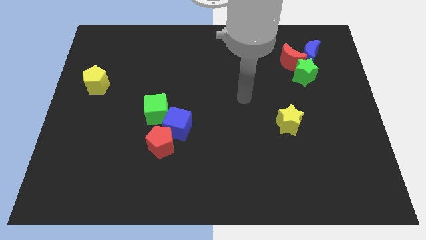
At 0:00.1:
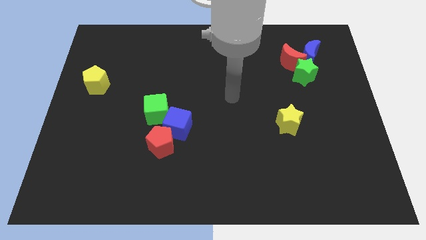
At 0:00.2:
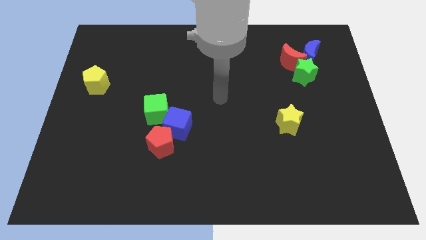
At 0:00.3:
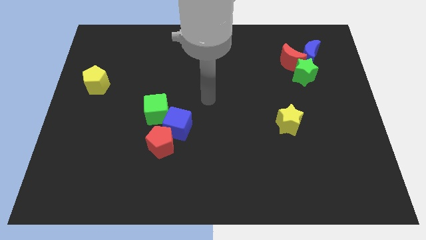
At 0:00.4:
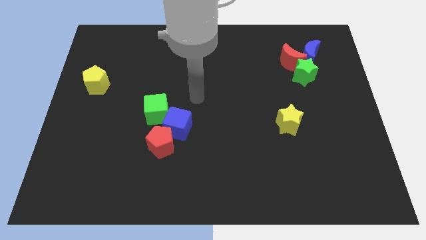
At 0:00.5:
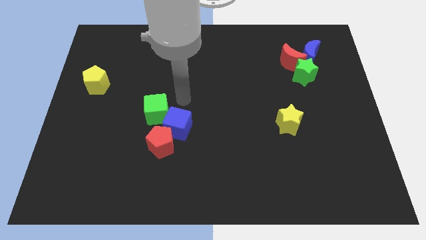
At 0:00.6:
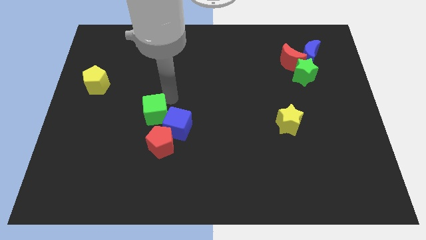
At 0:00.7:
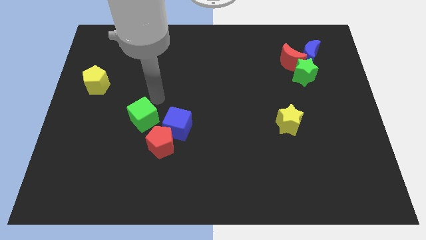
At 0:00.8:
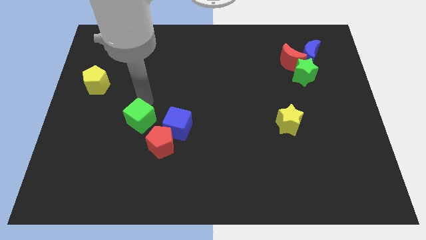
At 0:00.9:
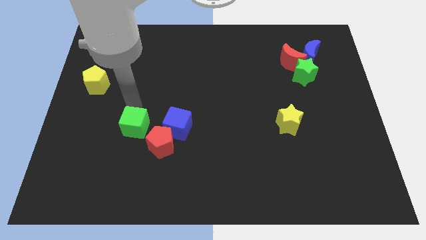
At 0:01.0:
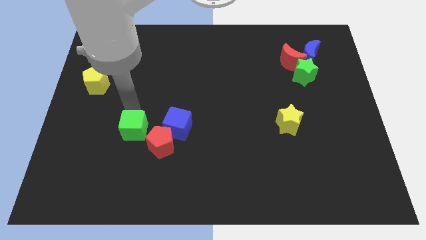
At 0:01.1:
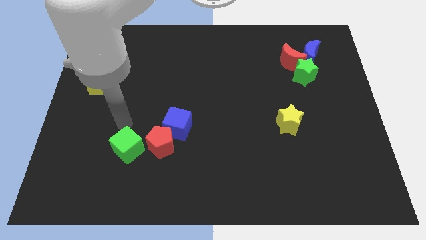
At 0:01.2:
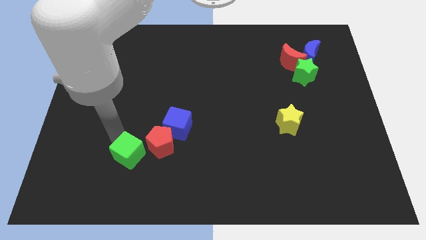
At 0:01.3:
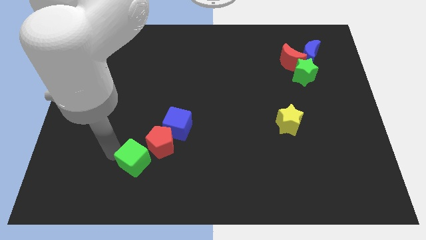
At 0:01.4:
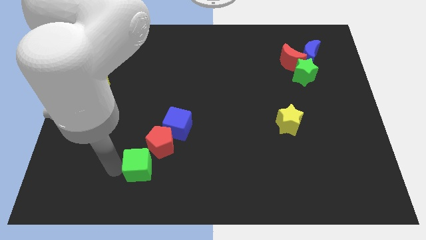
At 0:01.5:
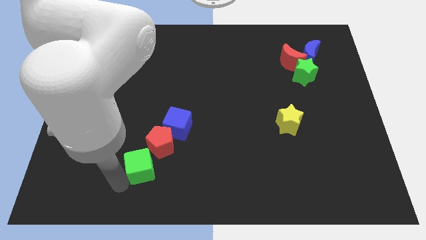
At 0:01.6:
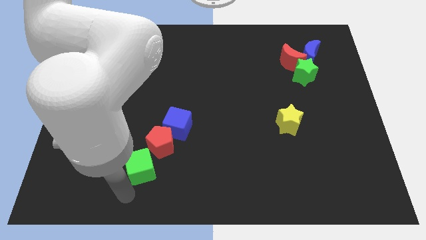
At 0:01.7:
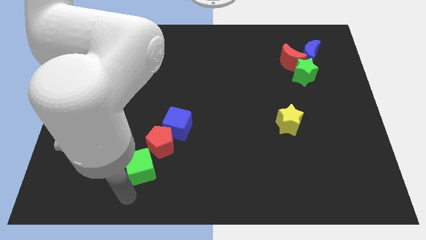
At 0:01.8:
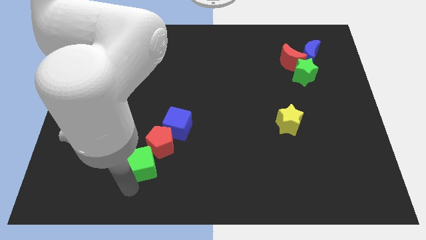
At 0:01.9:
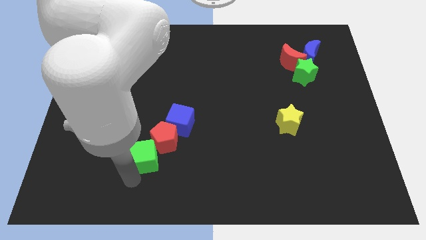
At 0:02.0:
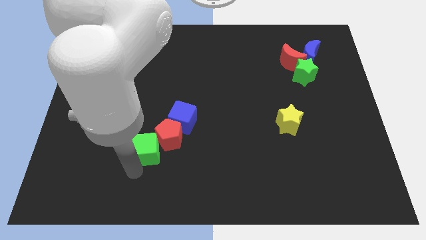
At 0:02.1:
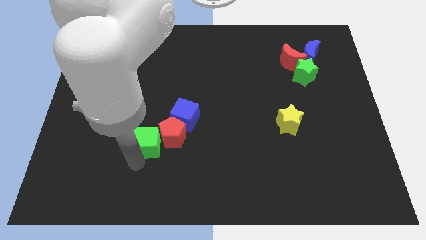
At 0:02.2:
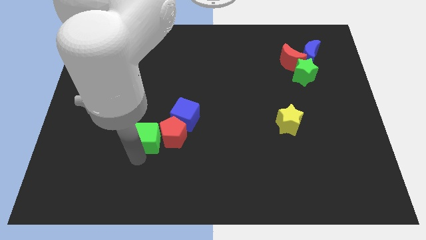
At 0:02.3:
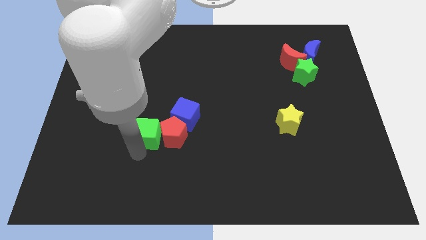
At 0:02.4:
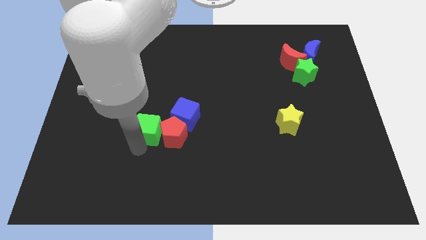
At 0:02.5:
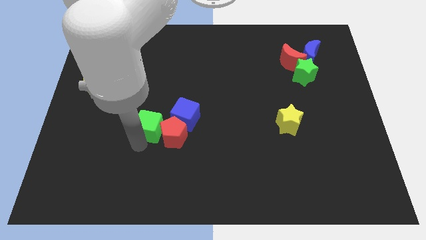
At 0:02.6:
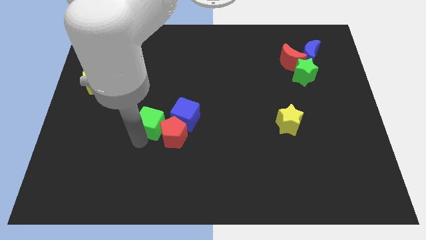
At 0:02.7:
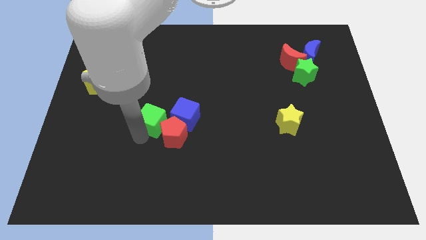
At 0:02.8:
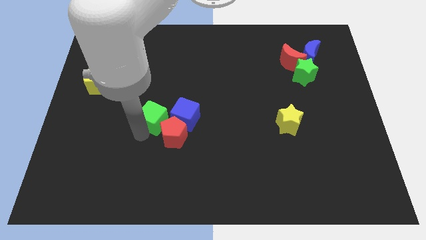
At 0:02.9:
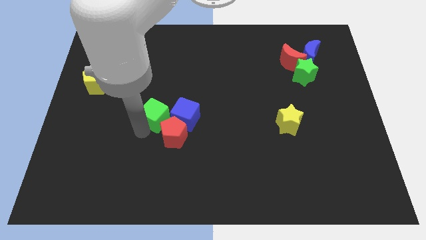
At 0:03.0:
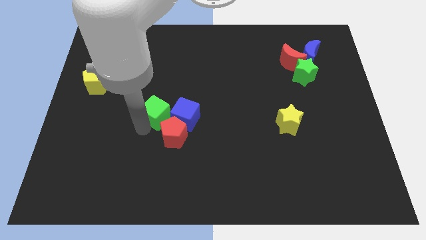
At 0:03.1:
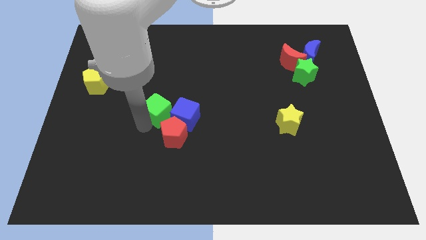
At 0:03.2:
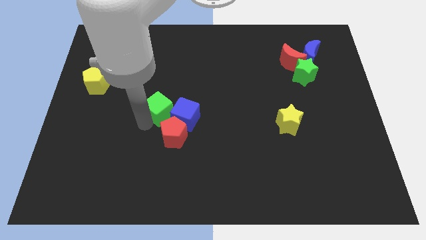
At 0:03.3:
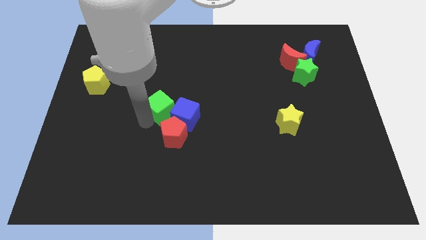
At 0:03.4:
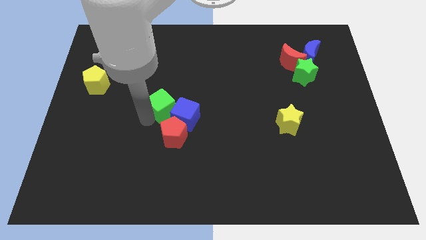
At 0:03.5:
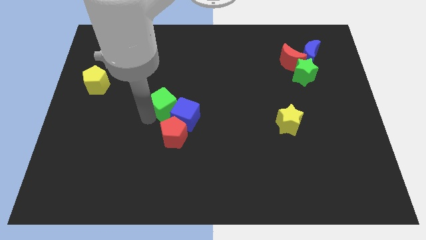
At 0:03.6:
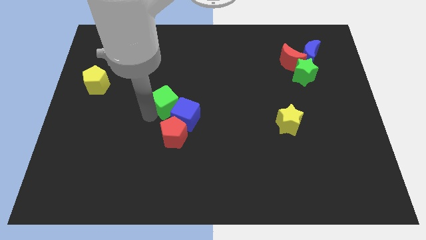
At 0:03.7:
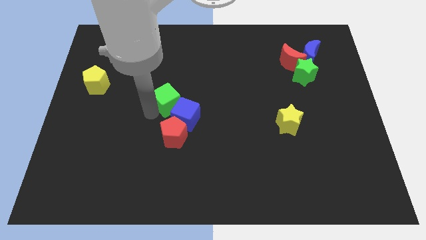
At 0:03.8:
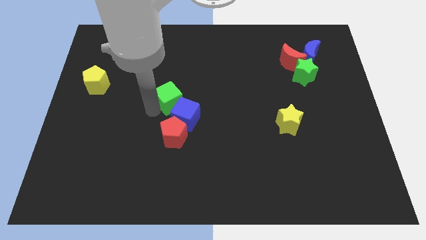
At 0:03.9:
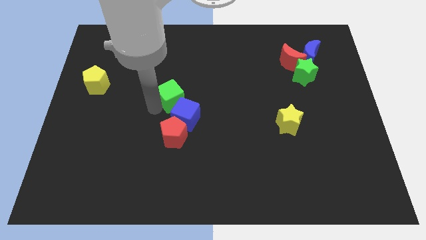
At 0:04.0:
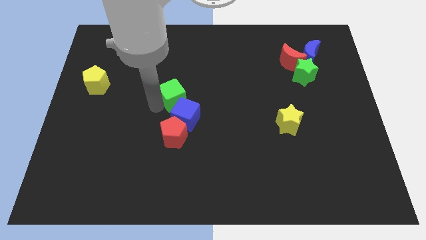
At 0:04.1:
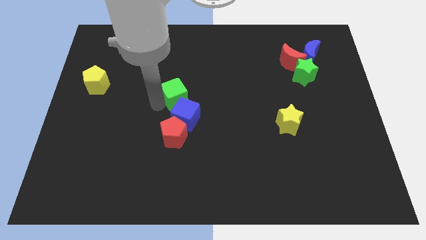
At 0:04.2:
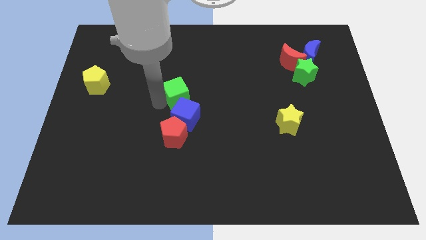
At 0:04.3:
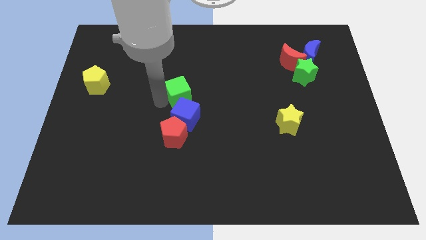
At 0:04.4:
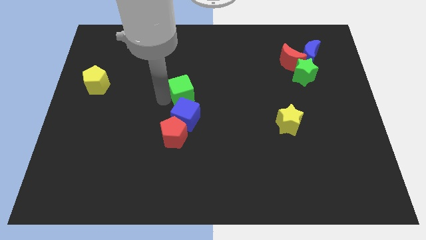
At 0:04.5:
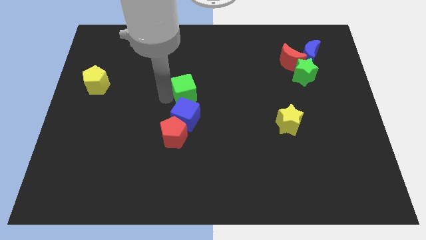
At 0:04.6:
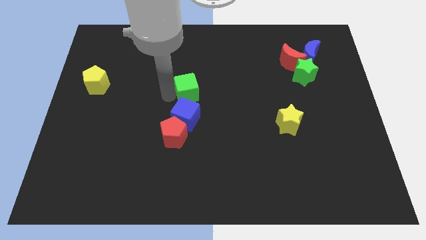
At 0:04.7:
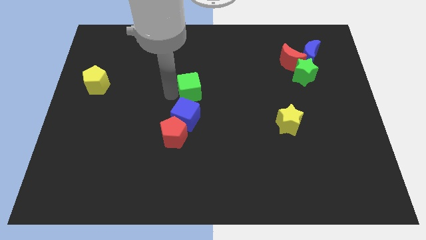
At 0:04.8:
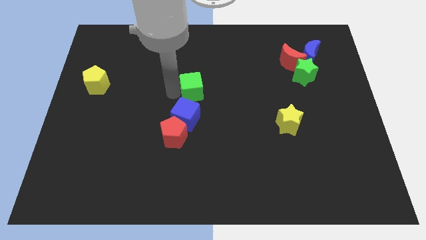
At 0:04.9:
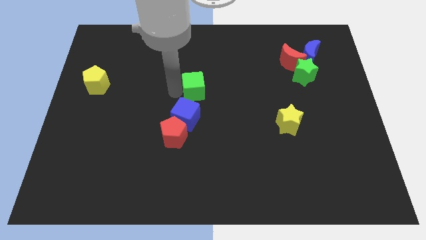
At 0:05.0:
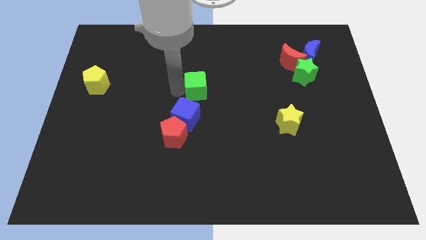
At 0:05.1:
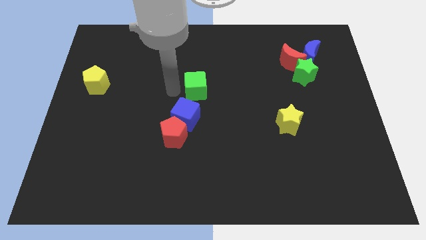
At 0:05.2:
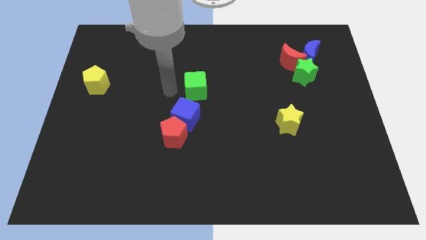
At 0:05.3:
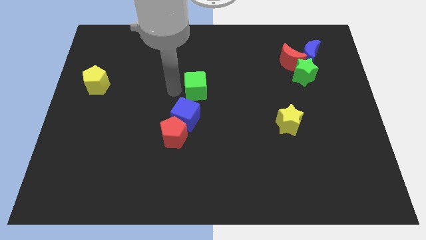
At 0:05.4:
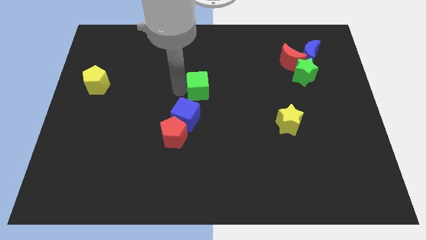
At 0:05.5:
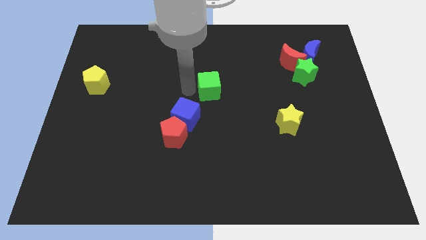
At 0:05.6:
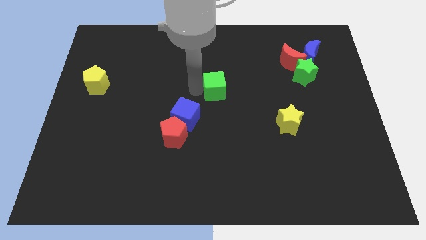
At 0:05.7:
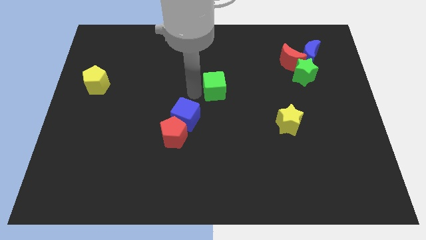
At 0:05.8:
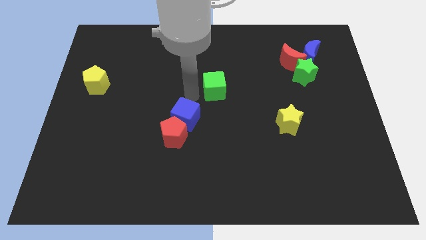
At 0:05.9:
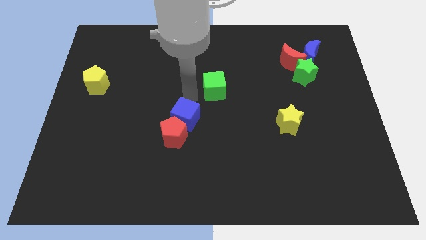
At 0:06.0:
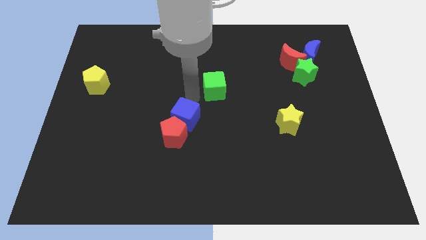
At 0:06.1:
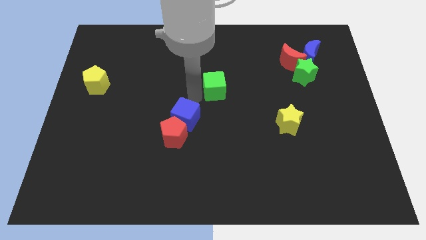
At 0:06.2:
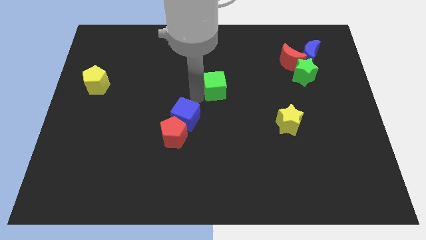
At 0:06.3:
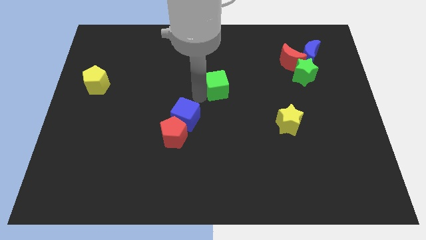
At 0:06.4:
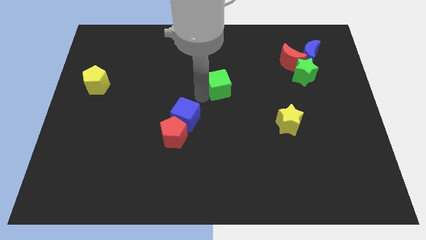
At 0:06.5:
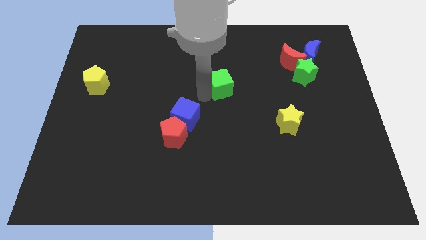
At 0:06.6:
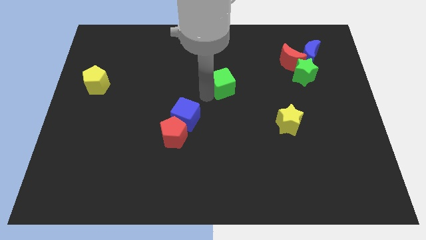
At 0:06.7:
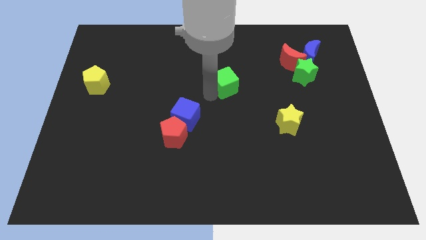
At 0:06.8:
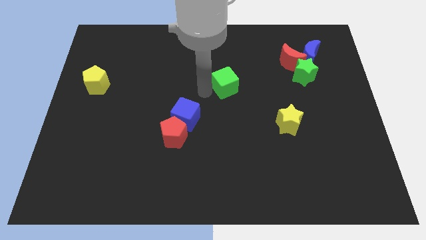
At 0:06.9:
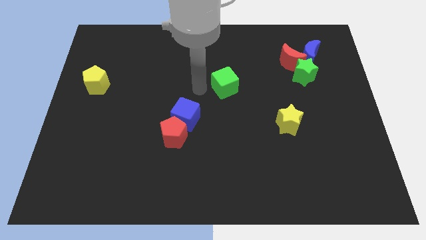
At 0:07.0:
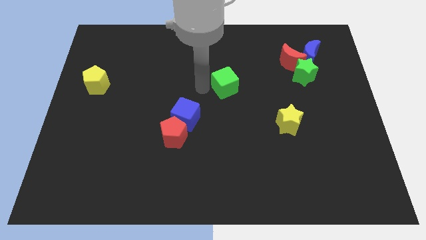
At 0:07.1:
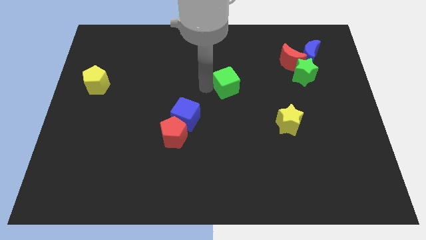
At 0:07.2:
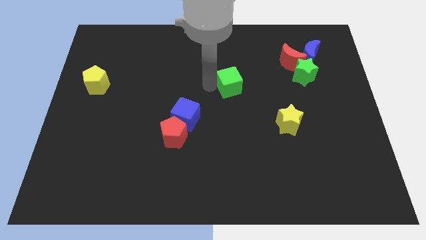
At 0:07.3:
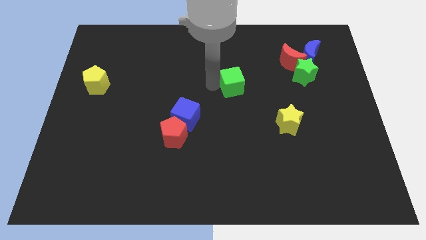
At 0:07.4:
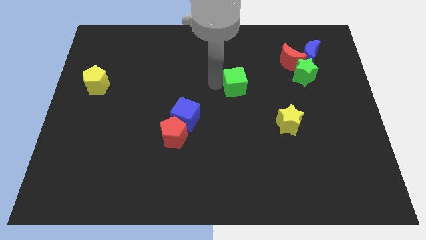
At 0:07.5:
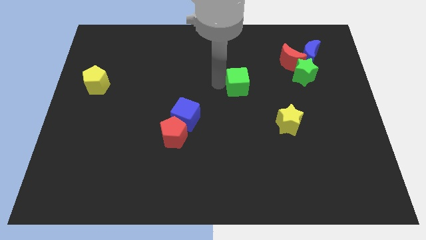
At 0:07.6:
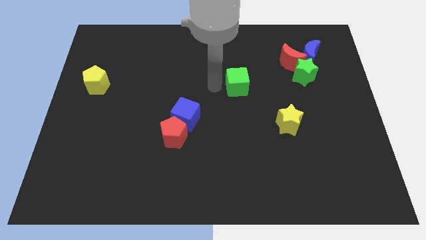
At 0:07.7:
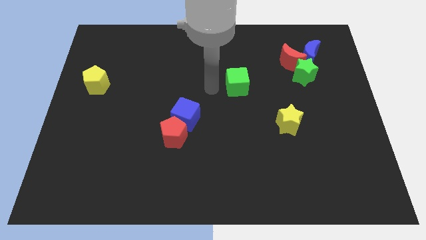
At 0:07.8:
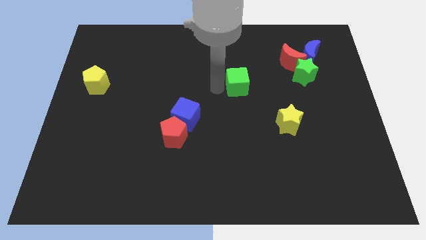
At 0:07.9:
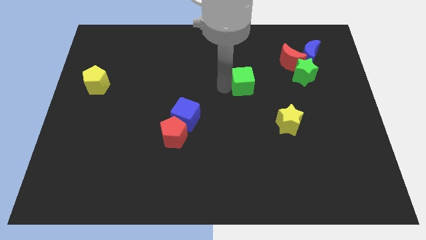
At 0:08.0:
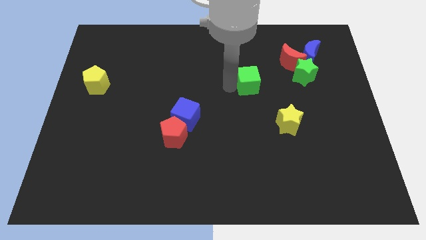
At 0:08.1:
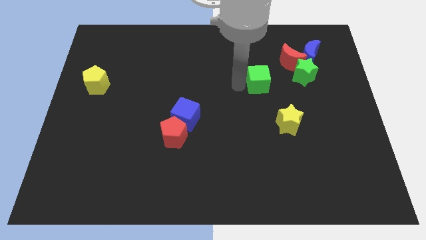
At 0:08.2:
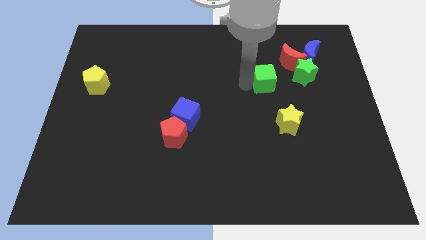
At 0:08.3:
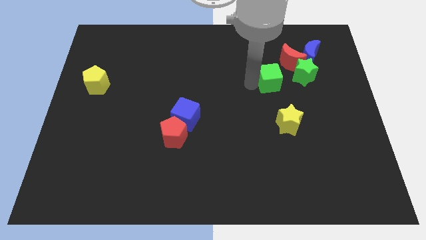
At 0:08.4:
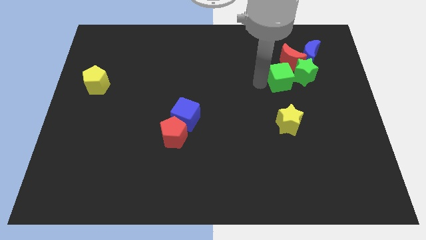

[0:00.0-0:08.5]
slide the green cube next to the green star
